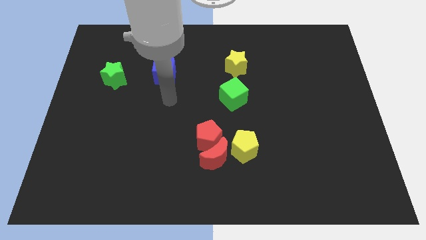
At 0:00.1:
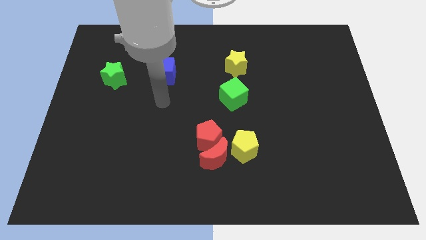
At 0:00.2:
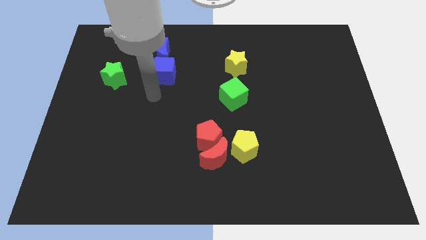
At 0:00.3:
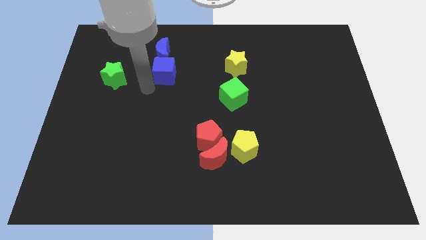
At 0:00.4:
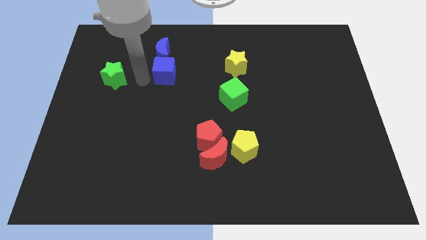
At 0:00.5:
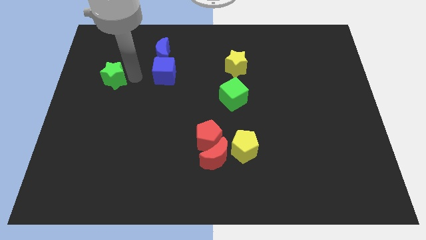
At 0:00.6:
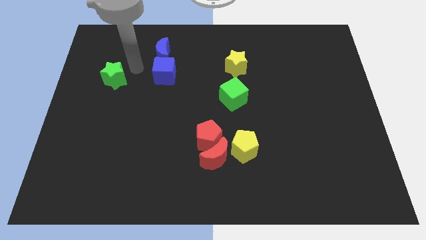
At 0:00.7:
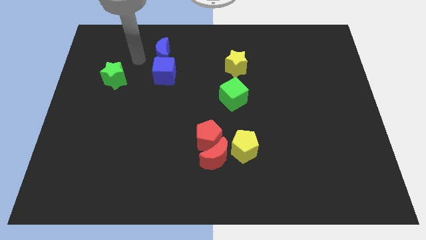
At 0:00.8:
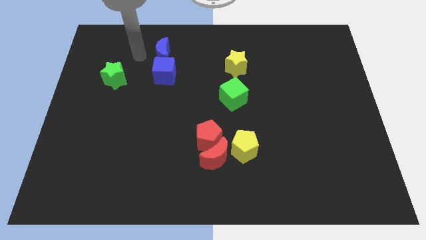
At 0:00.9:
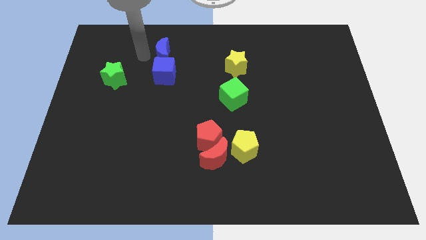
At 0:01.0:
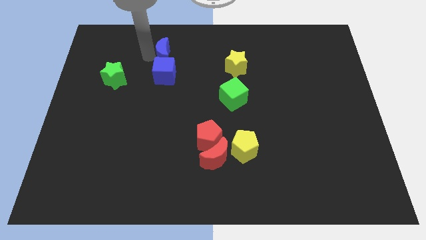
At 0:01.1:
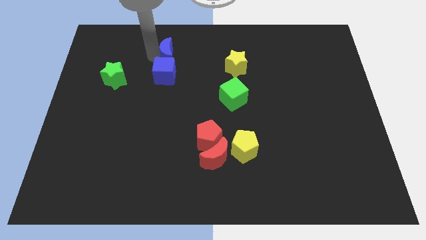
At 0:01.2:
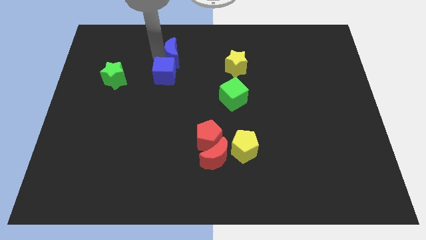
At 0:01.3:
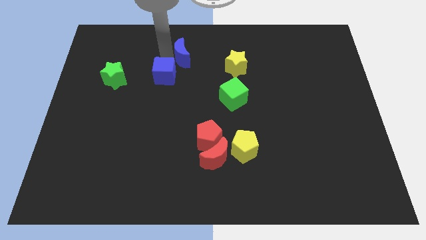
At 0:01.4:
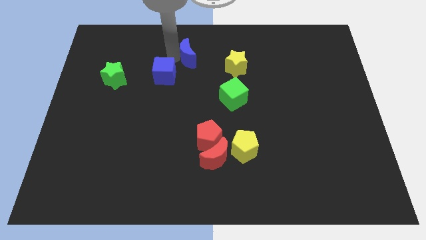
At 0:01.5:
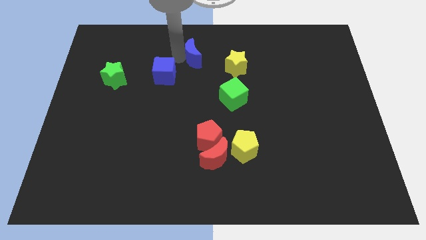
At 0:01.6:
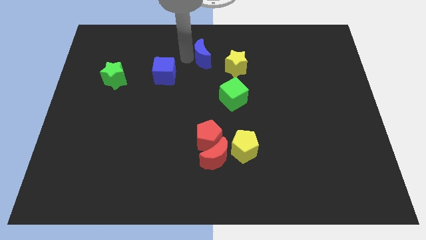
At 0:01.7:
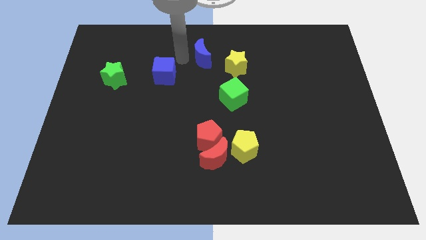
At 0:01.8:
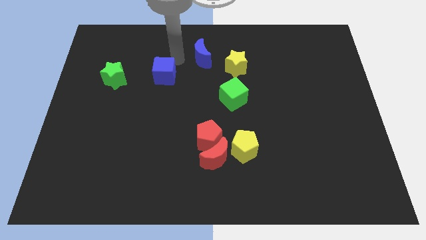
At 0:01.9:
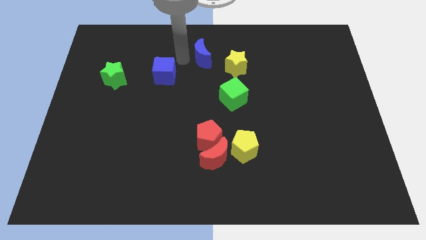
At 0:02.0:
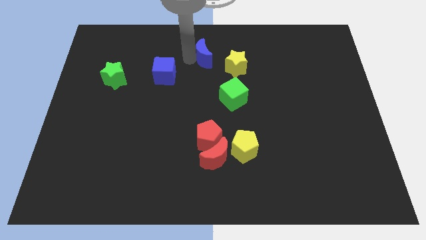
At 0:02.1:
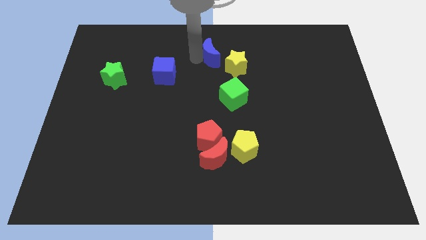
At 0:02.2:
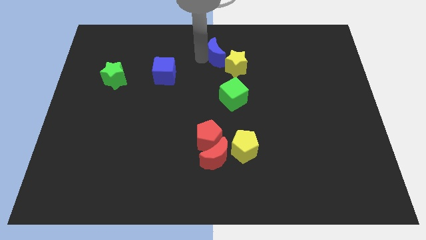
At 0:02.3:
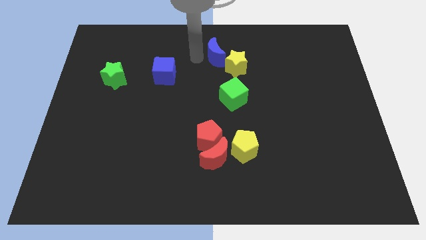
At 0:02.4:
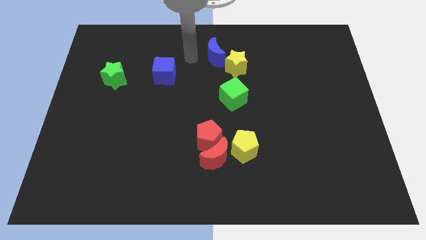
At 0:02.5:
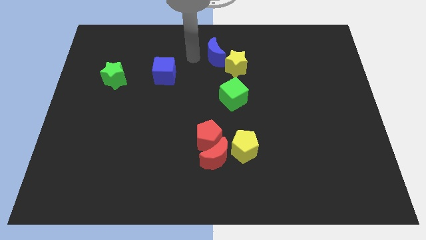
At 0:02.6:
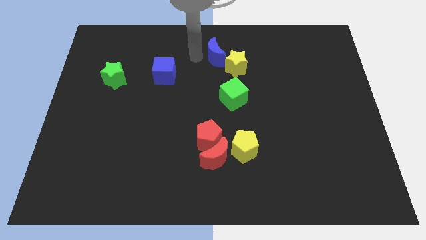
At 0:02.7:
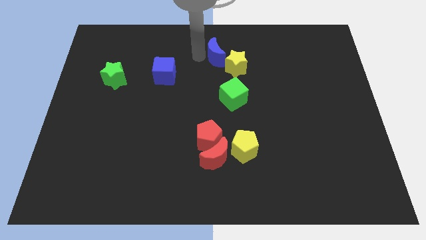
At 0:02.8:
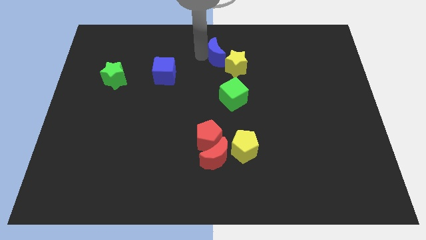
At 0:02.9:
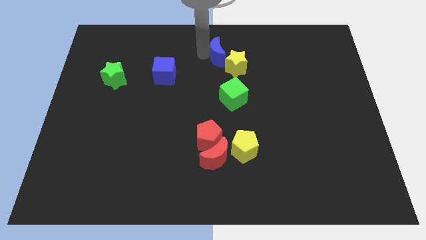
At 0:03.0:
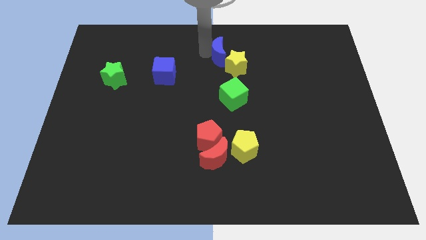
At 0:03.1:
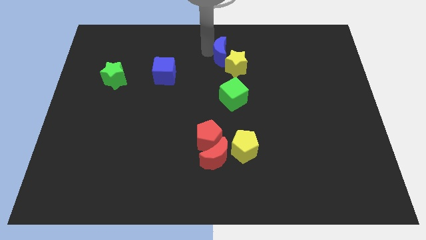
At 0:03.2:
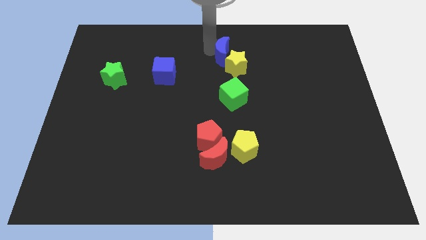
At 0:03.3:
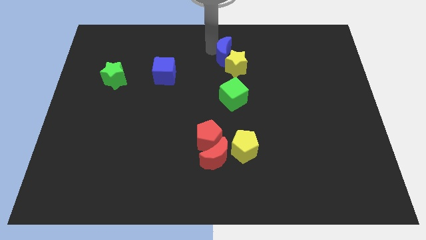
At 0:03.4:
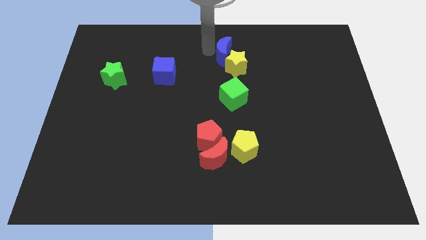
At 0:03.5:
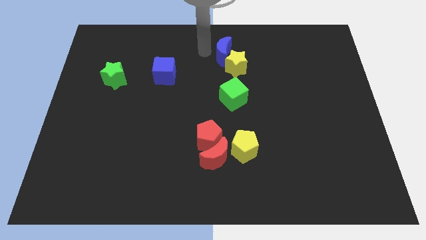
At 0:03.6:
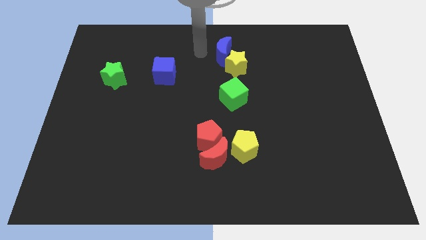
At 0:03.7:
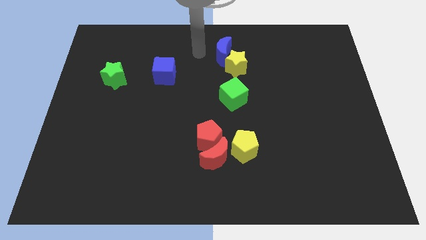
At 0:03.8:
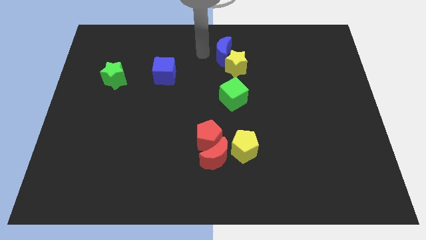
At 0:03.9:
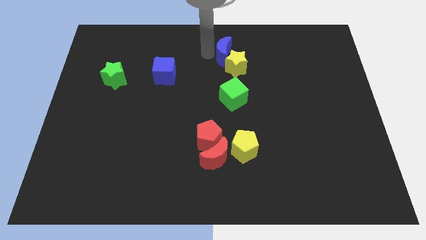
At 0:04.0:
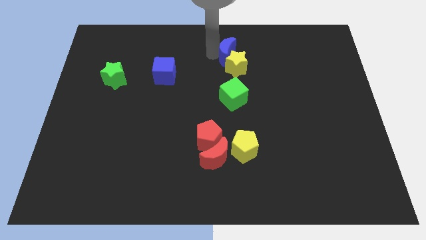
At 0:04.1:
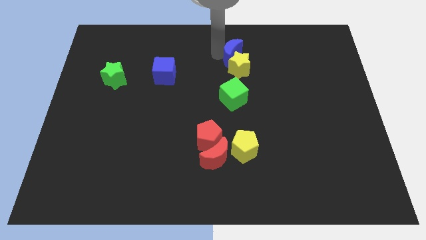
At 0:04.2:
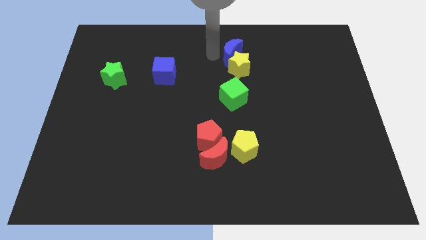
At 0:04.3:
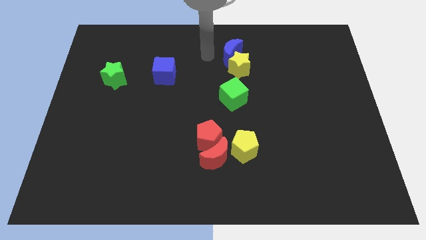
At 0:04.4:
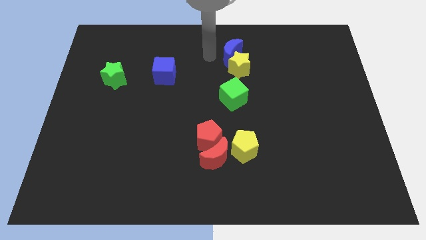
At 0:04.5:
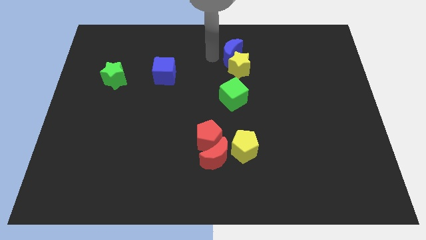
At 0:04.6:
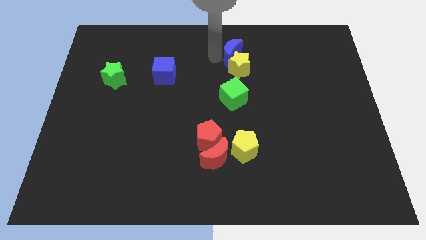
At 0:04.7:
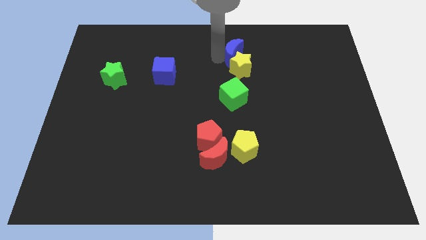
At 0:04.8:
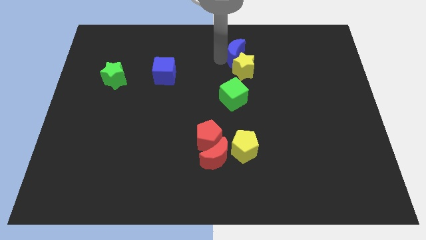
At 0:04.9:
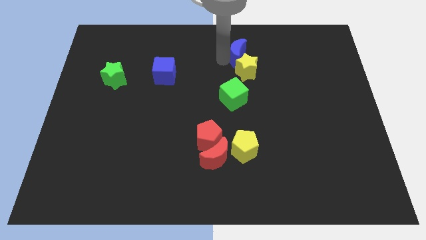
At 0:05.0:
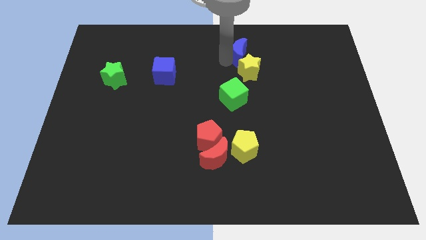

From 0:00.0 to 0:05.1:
push the blue moon to the right

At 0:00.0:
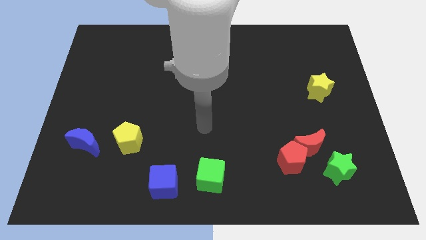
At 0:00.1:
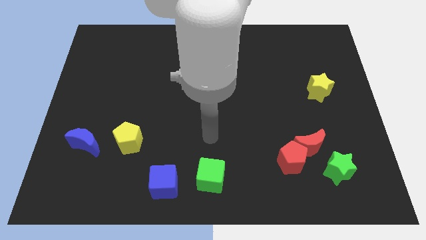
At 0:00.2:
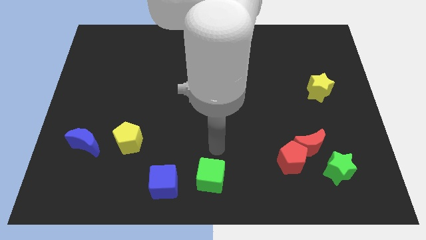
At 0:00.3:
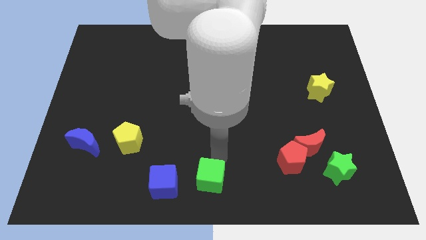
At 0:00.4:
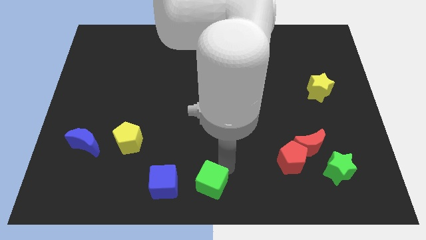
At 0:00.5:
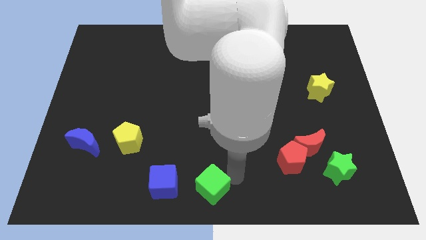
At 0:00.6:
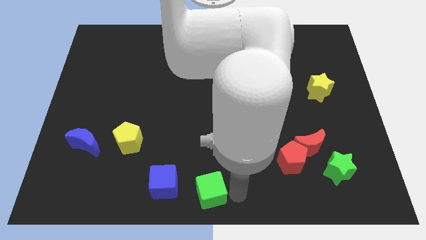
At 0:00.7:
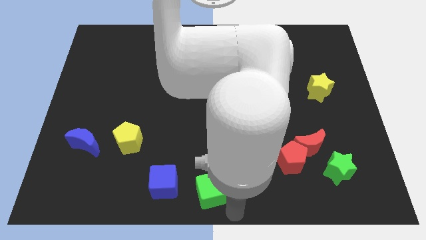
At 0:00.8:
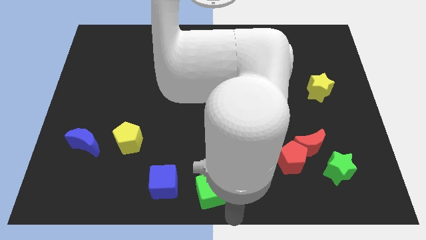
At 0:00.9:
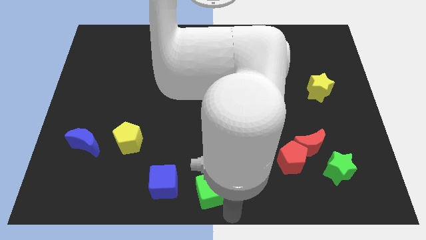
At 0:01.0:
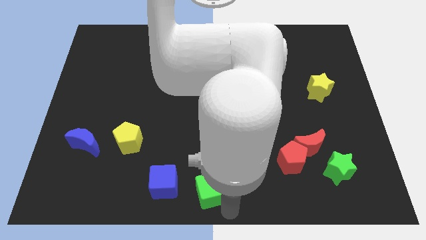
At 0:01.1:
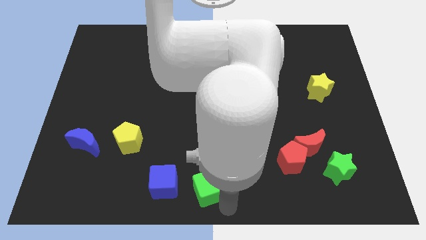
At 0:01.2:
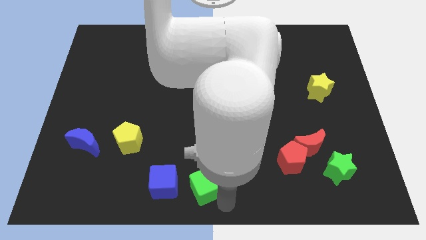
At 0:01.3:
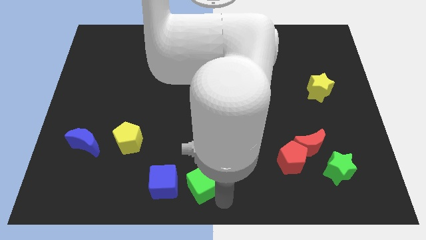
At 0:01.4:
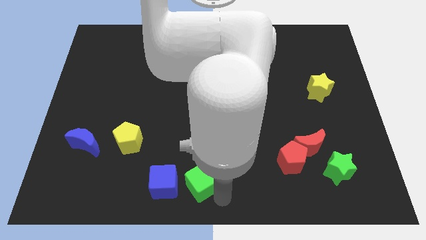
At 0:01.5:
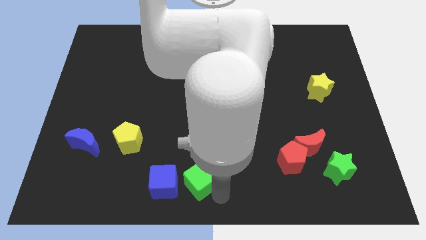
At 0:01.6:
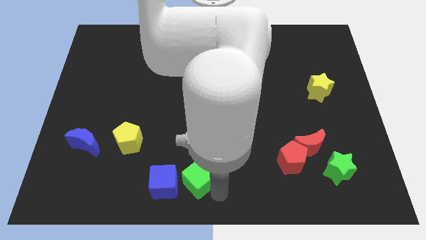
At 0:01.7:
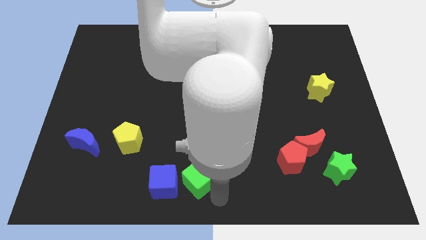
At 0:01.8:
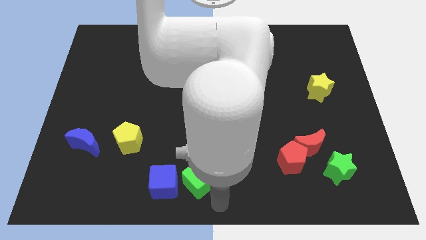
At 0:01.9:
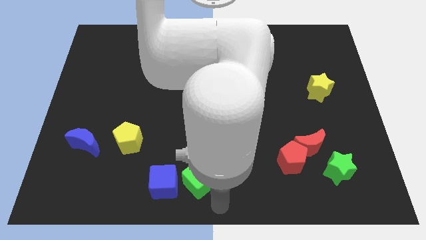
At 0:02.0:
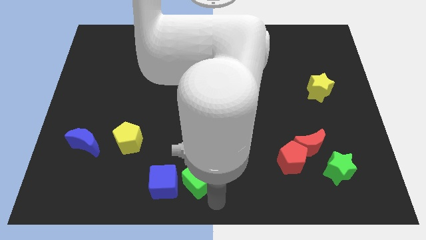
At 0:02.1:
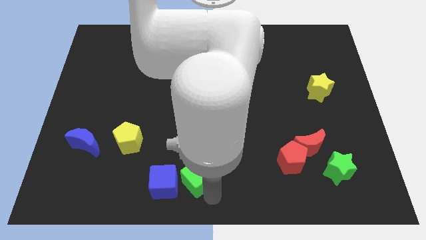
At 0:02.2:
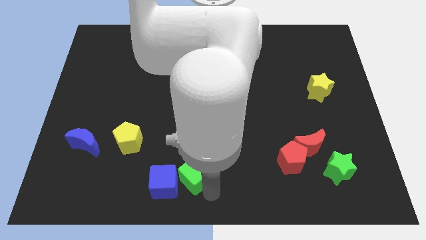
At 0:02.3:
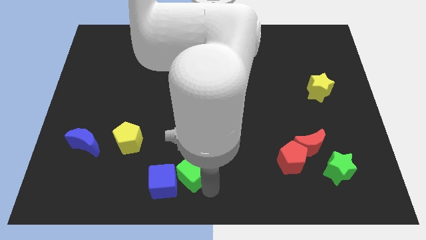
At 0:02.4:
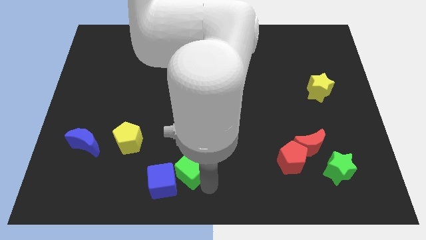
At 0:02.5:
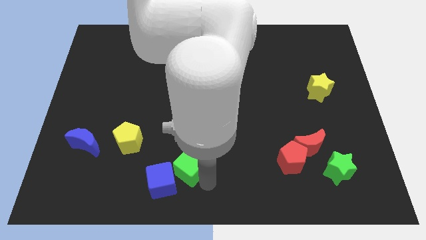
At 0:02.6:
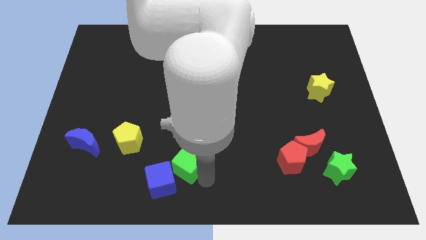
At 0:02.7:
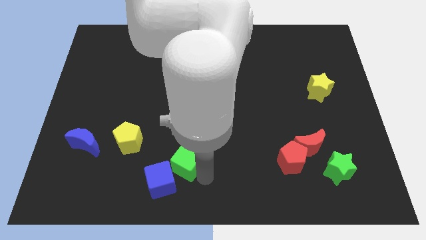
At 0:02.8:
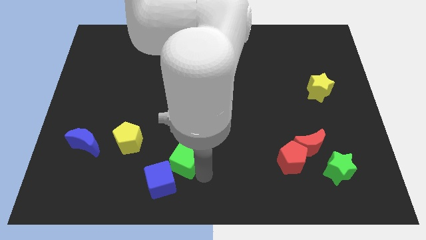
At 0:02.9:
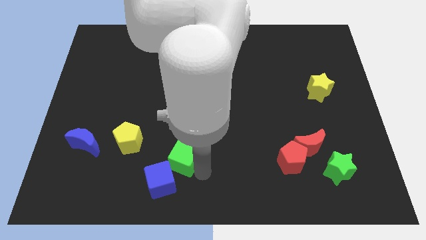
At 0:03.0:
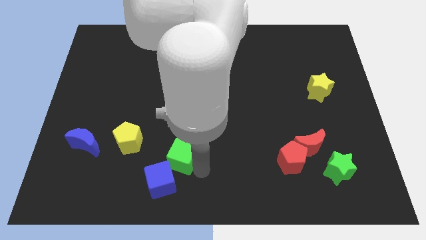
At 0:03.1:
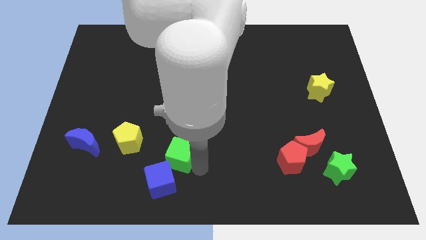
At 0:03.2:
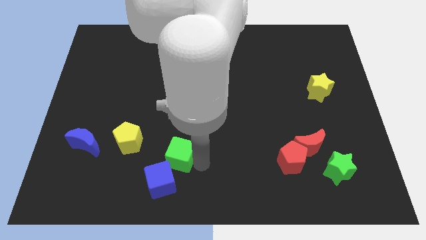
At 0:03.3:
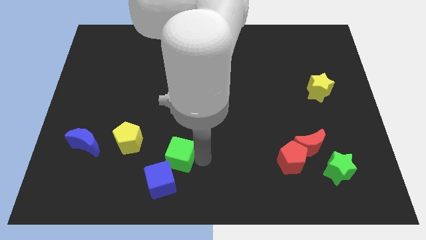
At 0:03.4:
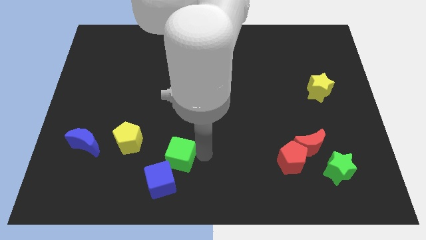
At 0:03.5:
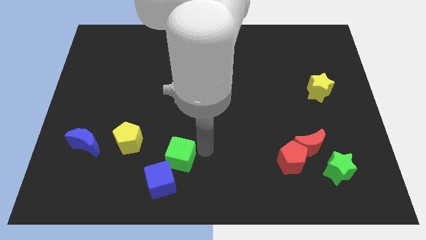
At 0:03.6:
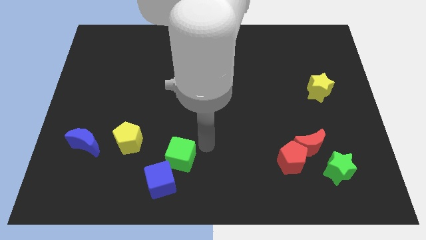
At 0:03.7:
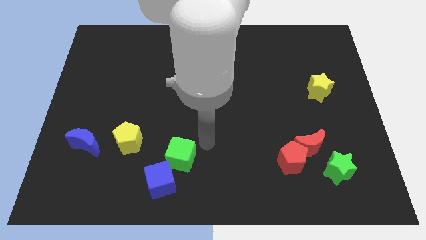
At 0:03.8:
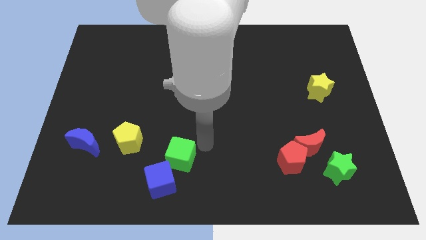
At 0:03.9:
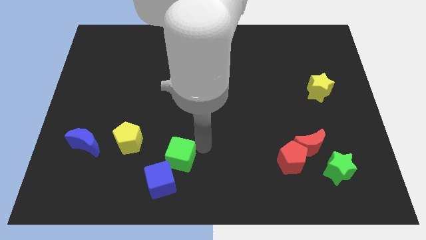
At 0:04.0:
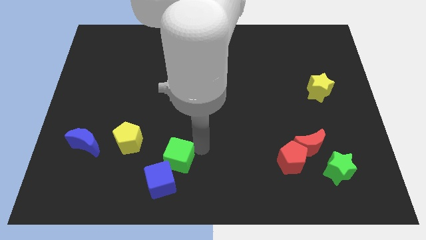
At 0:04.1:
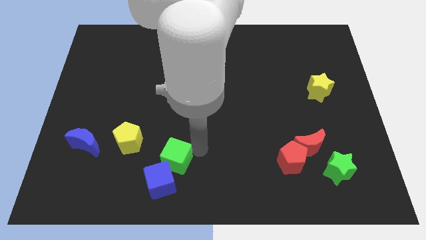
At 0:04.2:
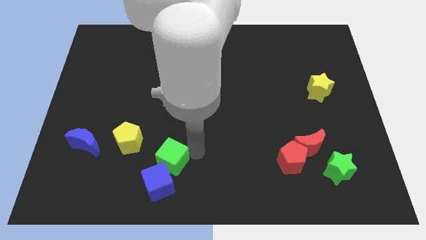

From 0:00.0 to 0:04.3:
slightly push the green cube left
